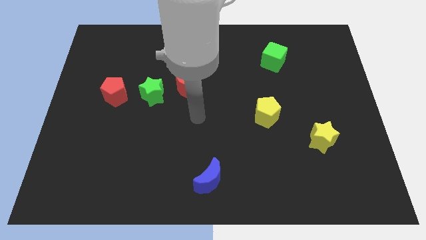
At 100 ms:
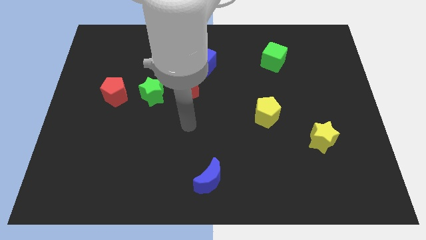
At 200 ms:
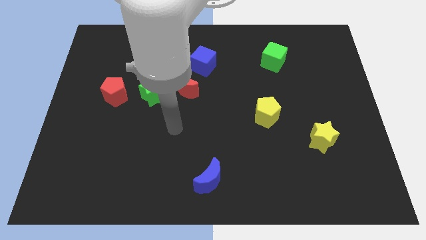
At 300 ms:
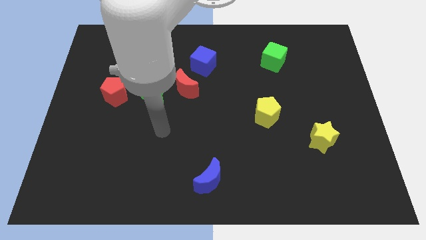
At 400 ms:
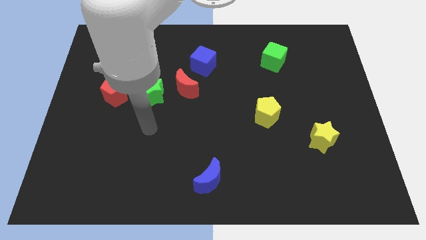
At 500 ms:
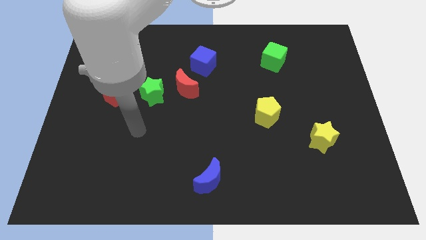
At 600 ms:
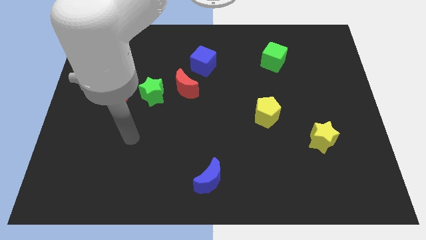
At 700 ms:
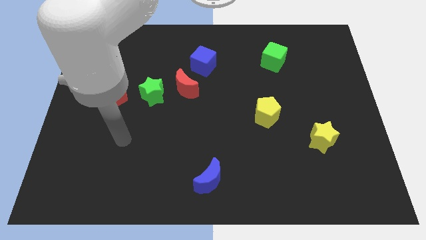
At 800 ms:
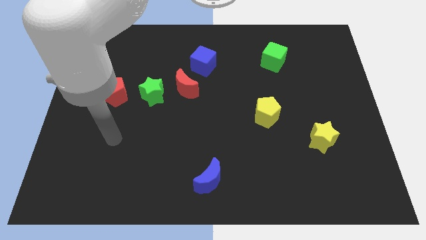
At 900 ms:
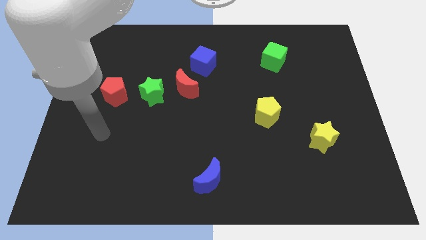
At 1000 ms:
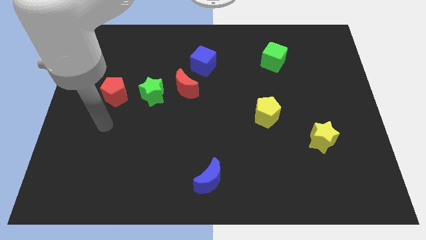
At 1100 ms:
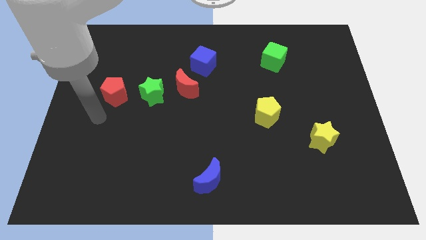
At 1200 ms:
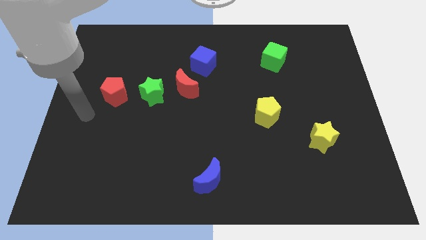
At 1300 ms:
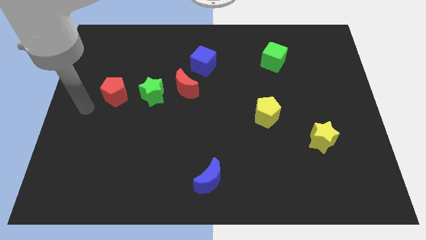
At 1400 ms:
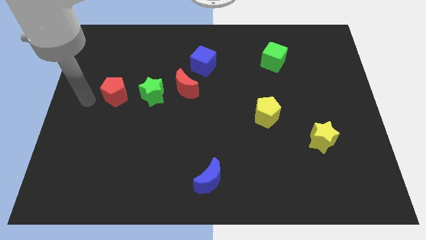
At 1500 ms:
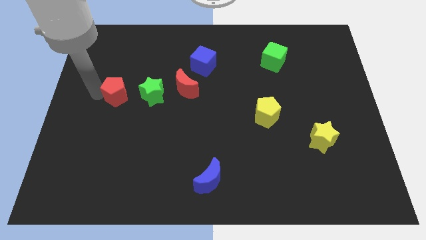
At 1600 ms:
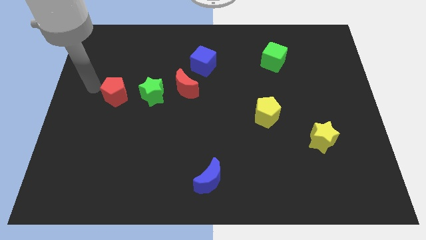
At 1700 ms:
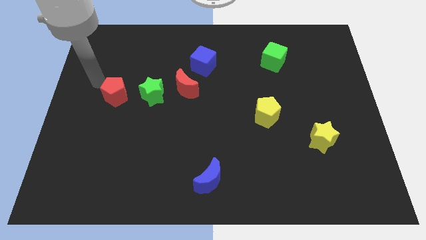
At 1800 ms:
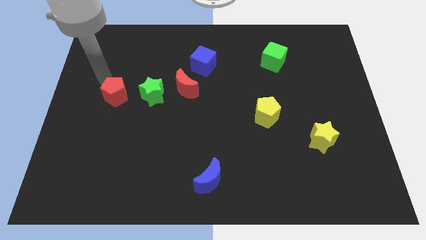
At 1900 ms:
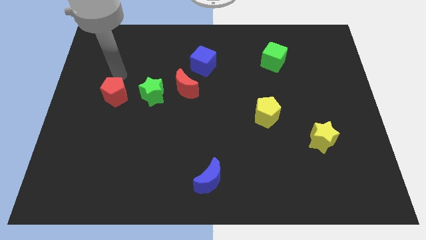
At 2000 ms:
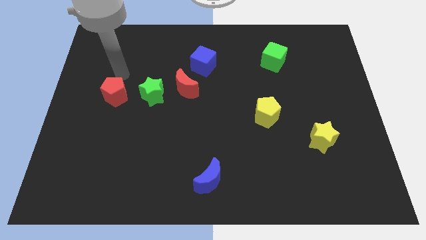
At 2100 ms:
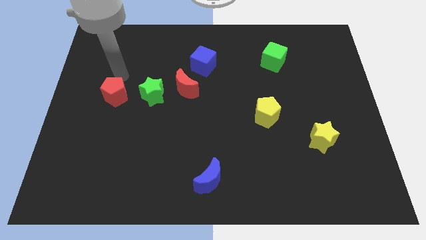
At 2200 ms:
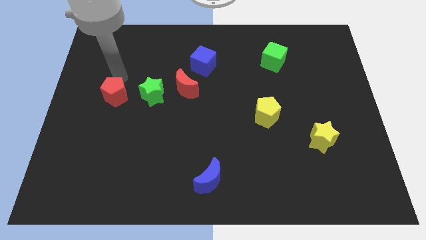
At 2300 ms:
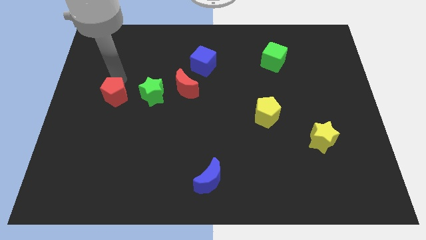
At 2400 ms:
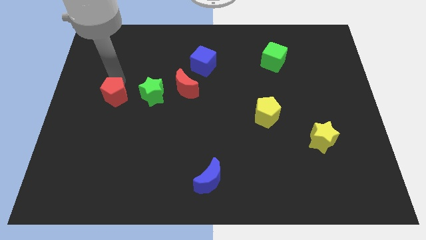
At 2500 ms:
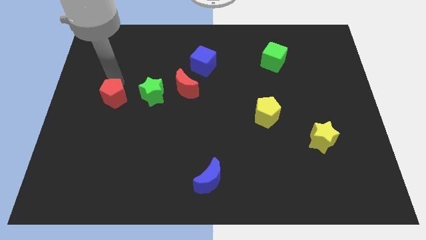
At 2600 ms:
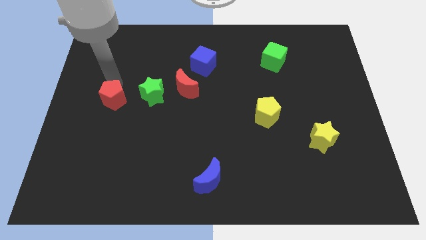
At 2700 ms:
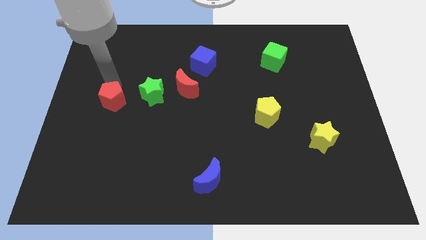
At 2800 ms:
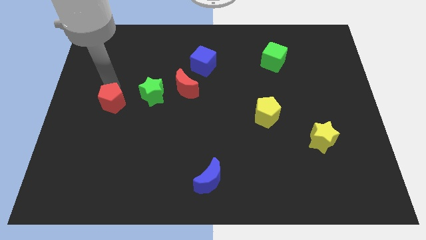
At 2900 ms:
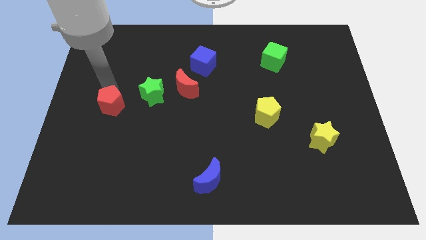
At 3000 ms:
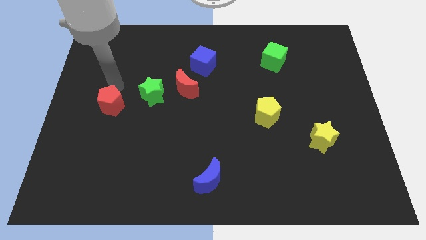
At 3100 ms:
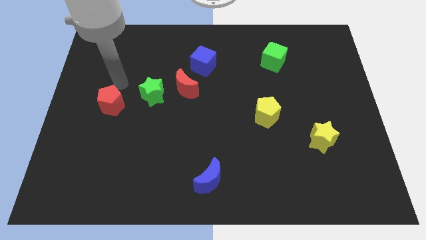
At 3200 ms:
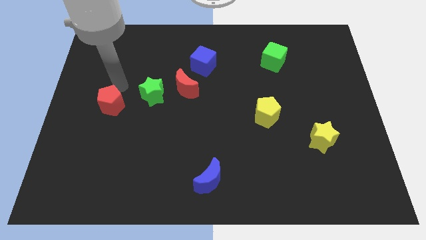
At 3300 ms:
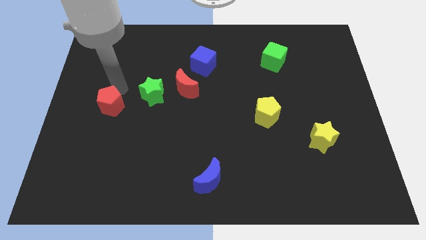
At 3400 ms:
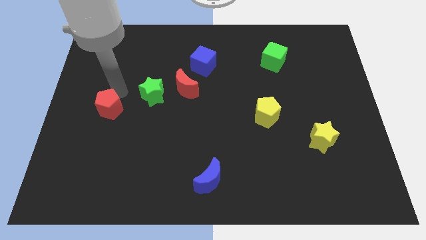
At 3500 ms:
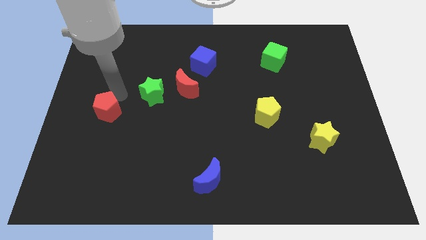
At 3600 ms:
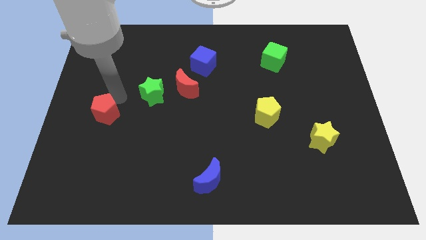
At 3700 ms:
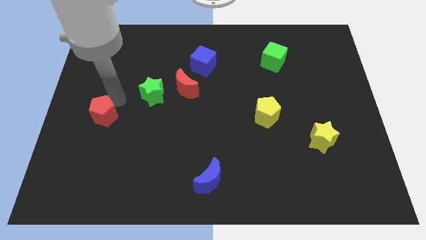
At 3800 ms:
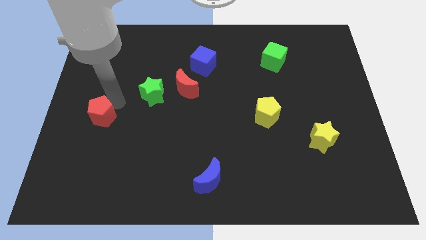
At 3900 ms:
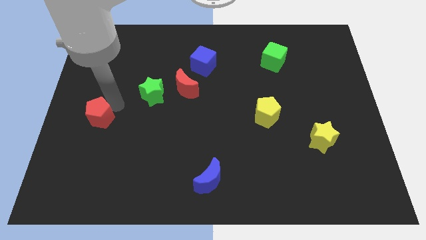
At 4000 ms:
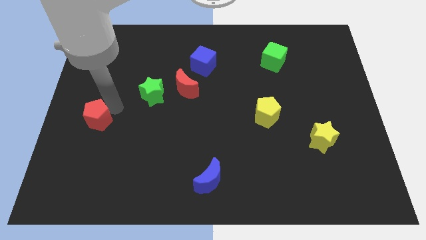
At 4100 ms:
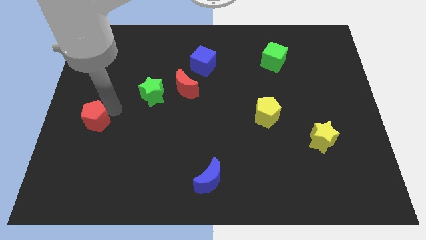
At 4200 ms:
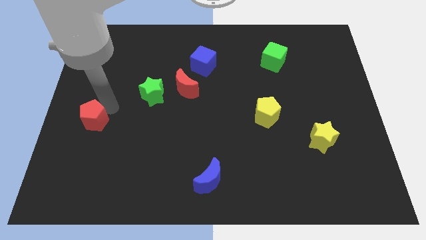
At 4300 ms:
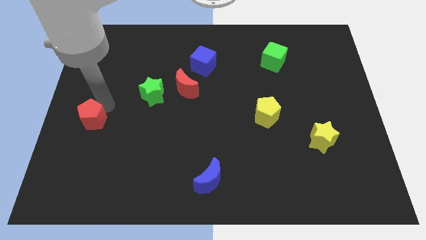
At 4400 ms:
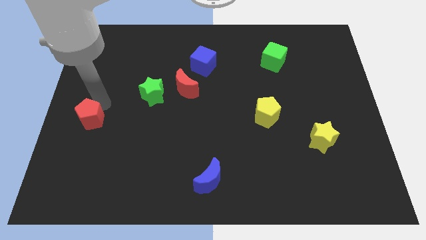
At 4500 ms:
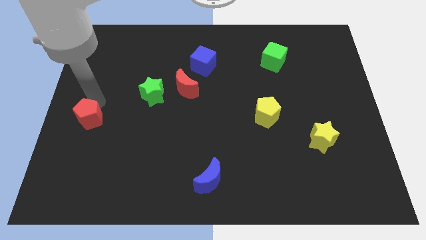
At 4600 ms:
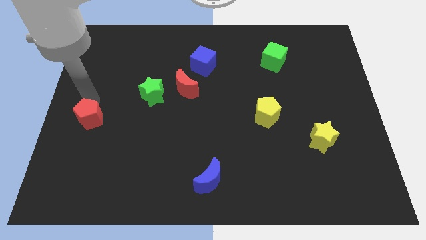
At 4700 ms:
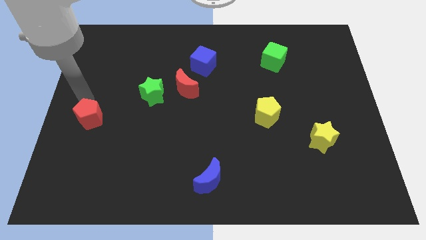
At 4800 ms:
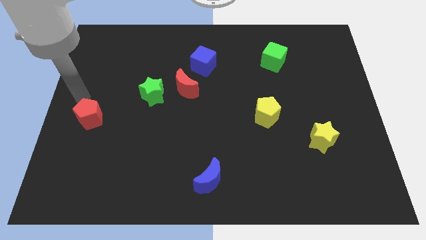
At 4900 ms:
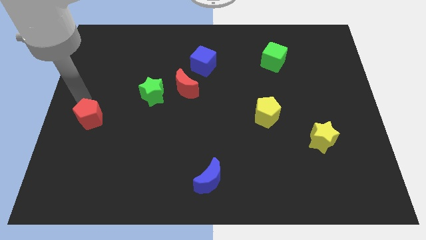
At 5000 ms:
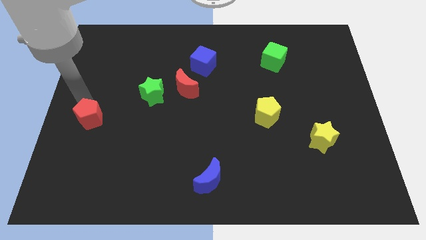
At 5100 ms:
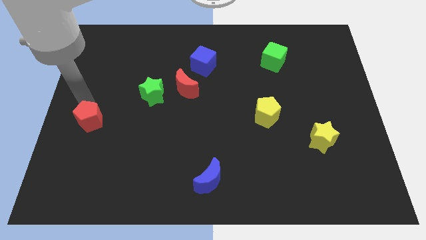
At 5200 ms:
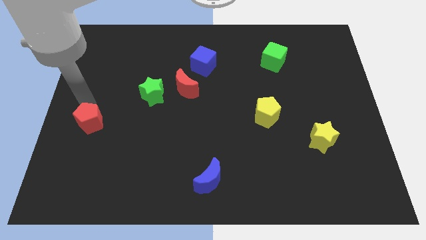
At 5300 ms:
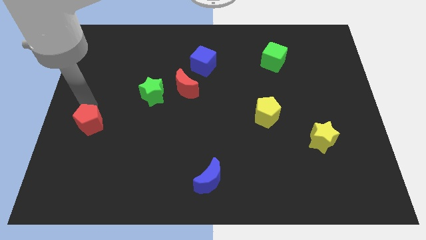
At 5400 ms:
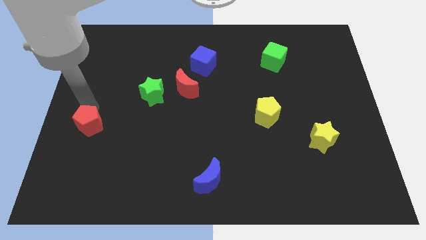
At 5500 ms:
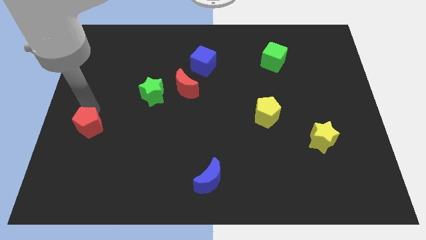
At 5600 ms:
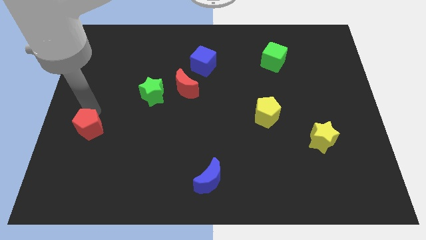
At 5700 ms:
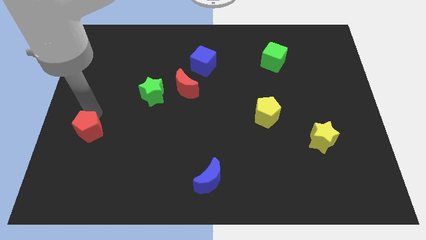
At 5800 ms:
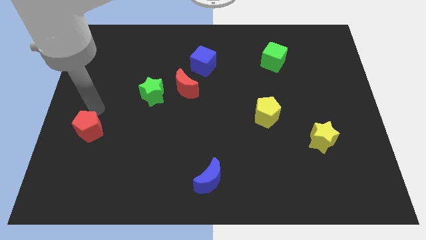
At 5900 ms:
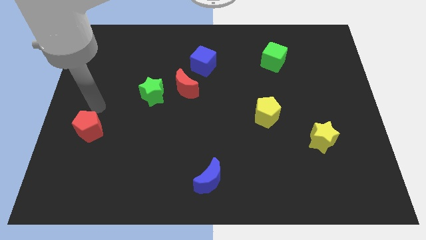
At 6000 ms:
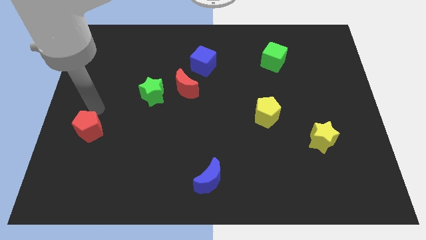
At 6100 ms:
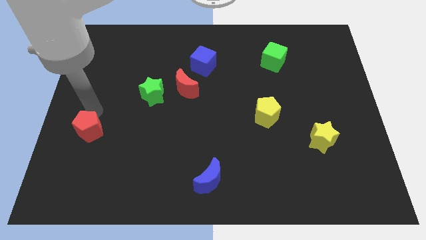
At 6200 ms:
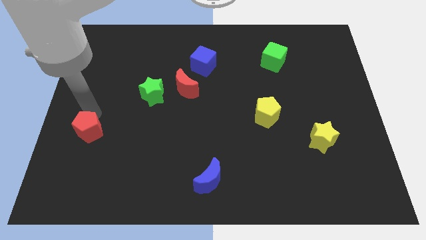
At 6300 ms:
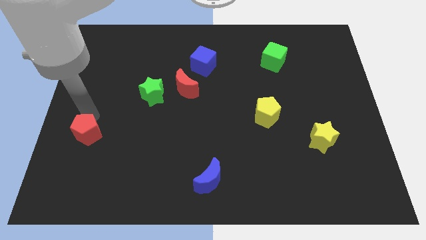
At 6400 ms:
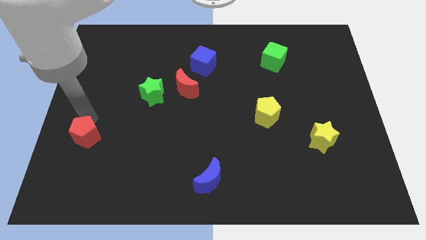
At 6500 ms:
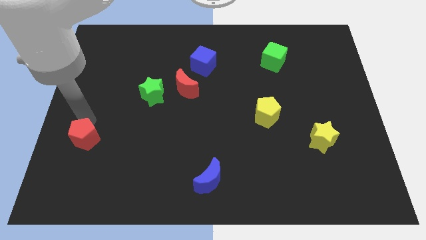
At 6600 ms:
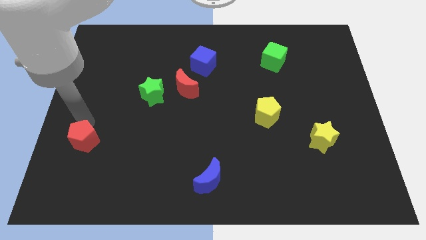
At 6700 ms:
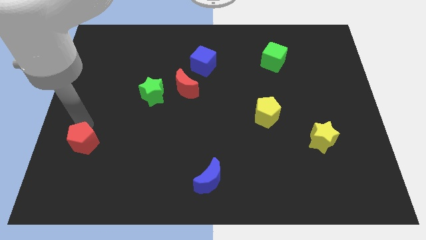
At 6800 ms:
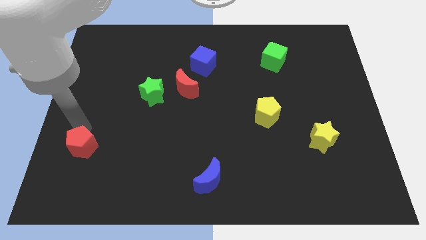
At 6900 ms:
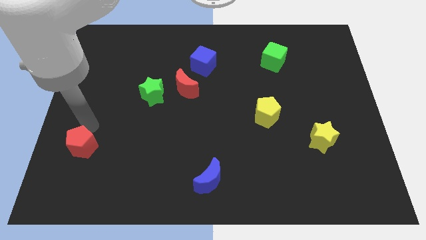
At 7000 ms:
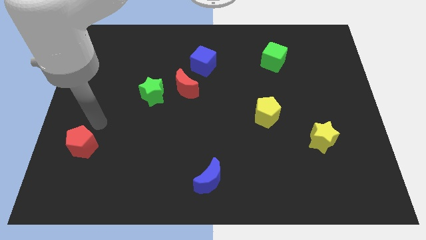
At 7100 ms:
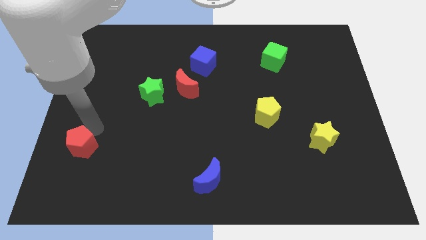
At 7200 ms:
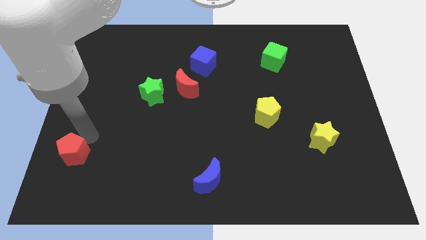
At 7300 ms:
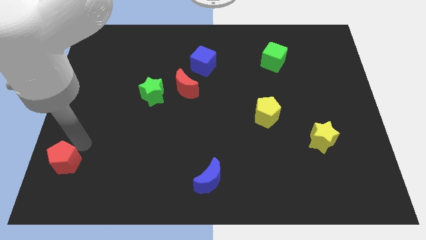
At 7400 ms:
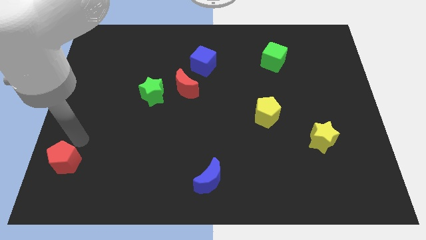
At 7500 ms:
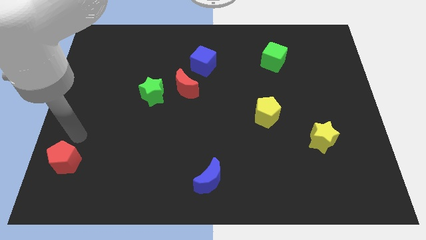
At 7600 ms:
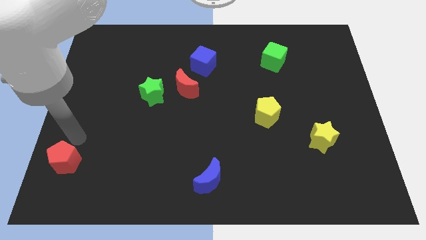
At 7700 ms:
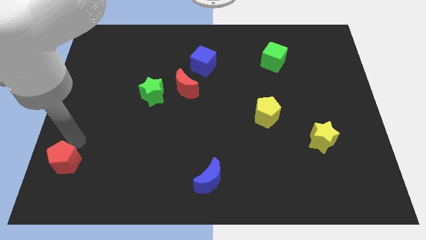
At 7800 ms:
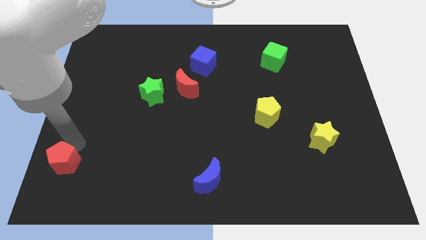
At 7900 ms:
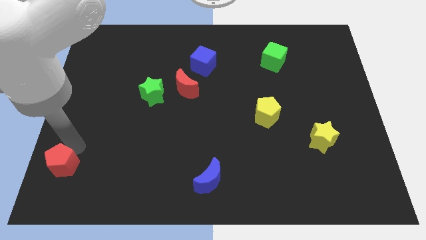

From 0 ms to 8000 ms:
move the red pentagon to the lower left corner
